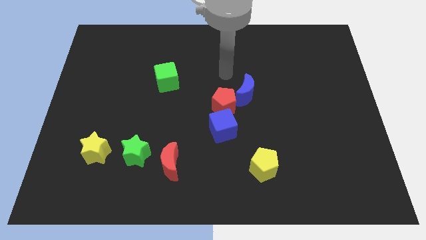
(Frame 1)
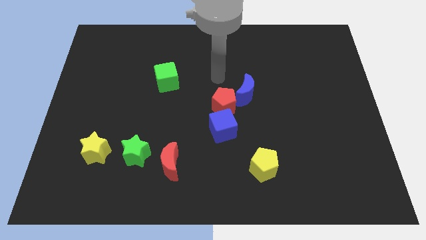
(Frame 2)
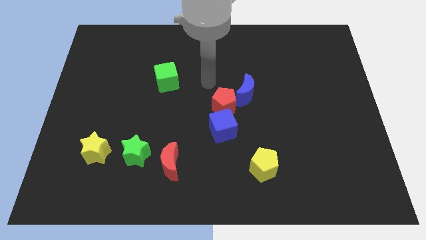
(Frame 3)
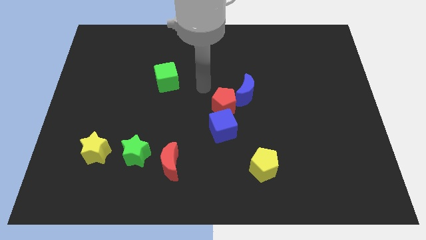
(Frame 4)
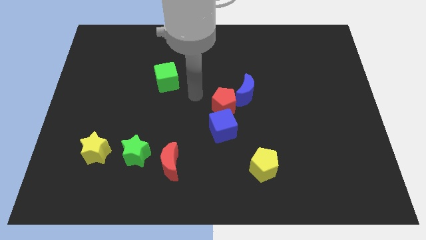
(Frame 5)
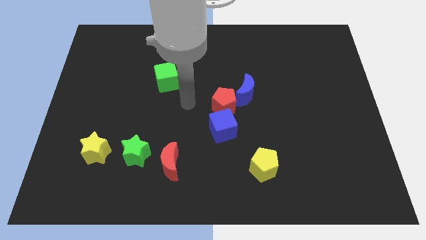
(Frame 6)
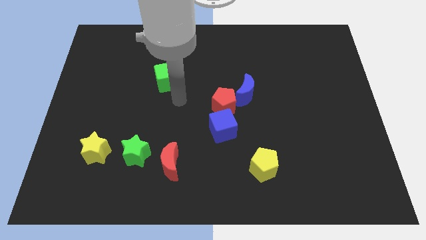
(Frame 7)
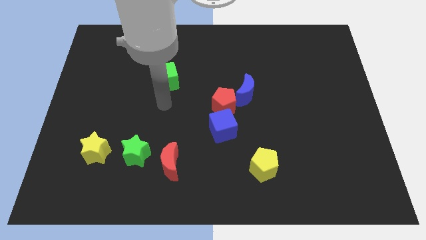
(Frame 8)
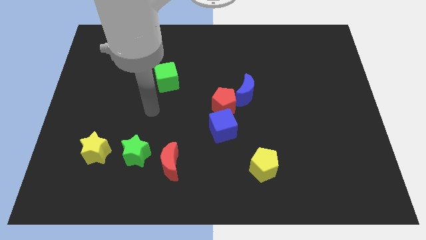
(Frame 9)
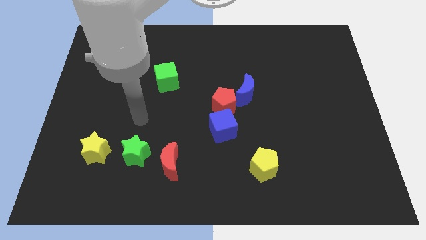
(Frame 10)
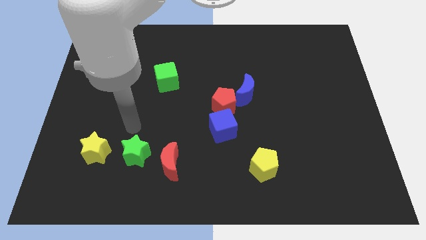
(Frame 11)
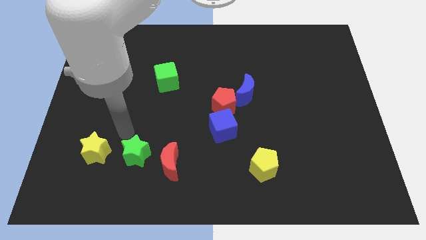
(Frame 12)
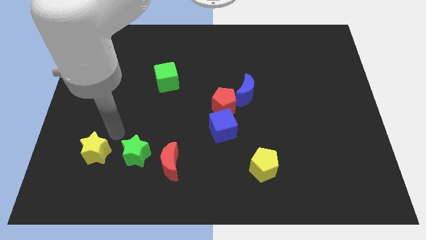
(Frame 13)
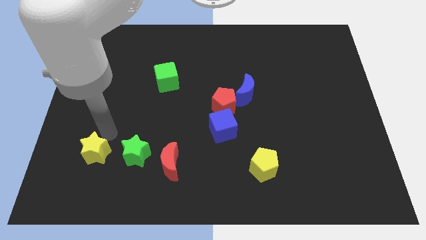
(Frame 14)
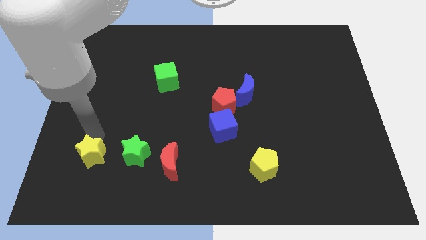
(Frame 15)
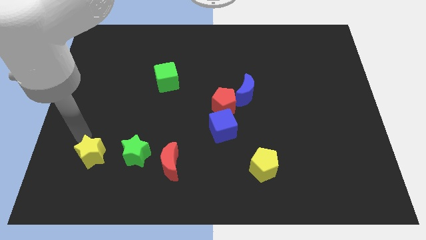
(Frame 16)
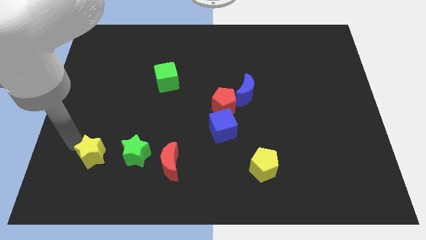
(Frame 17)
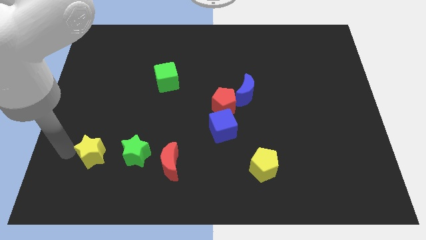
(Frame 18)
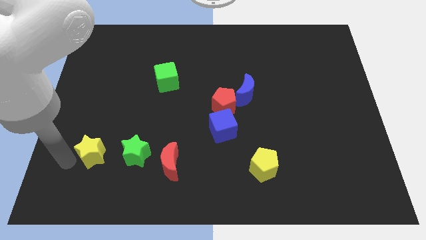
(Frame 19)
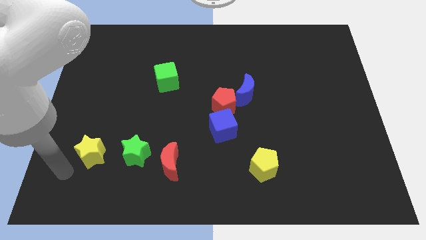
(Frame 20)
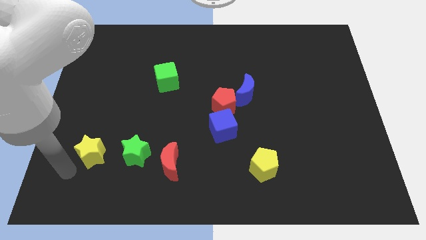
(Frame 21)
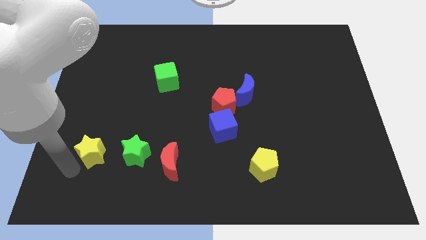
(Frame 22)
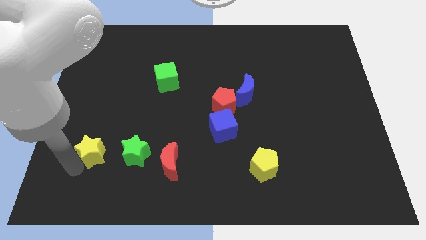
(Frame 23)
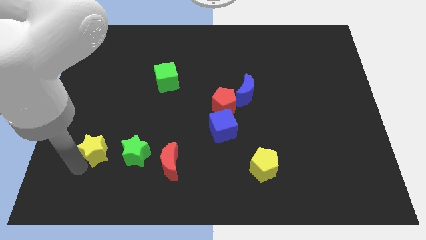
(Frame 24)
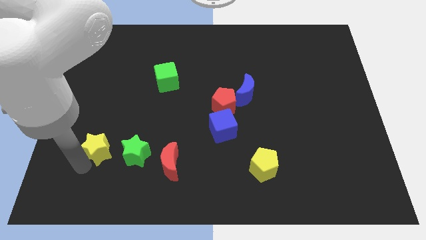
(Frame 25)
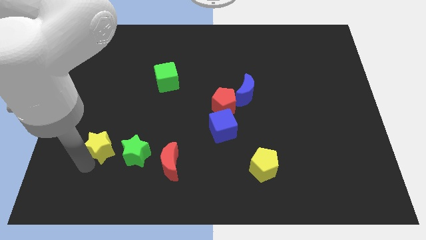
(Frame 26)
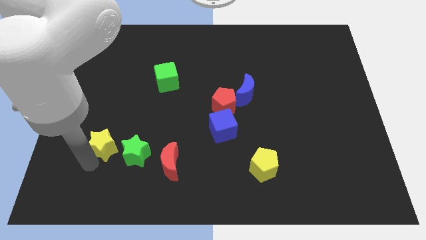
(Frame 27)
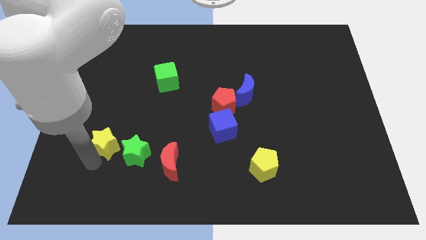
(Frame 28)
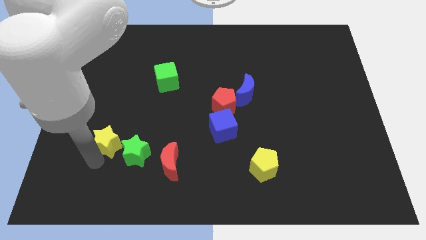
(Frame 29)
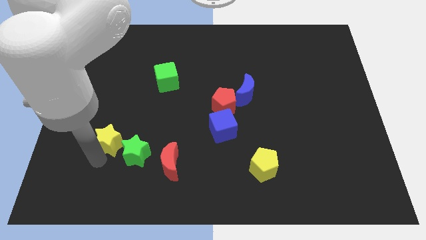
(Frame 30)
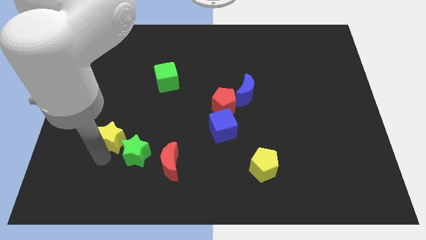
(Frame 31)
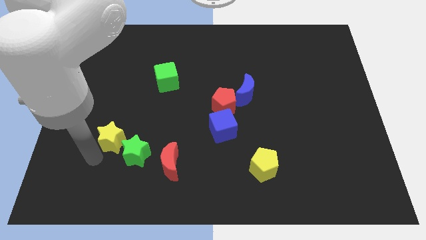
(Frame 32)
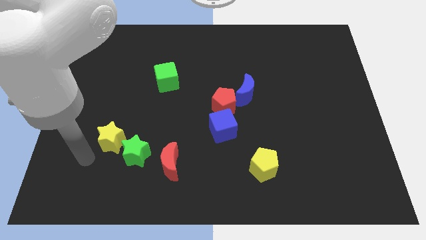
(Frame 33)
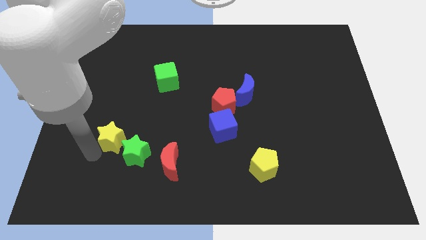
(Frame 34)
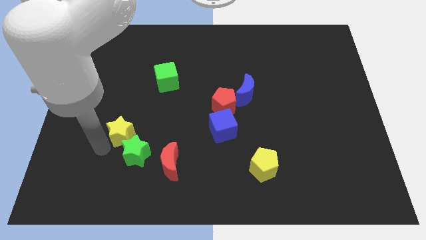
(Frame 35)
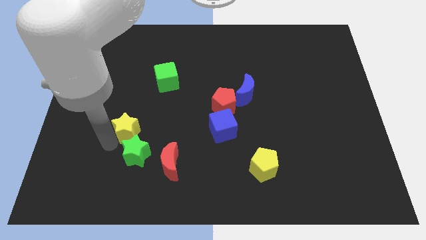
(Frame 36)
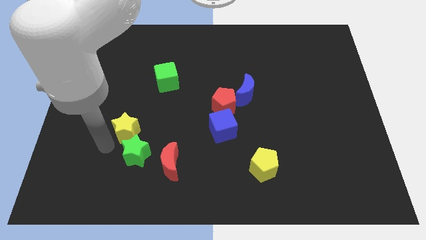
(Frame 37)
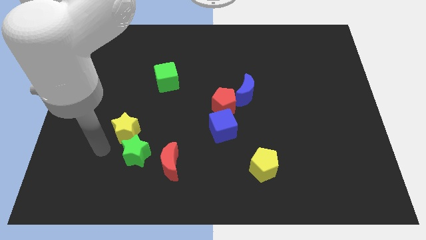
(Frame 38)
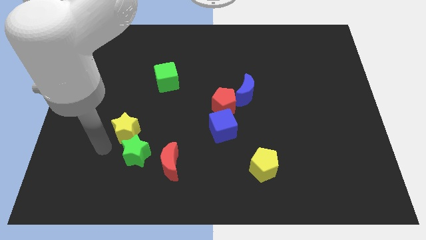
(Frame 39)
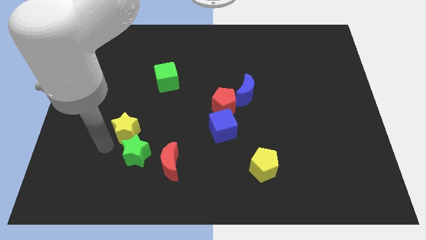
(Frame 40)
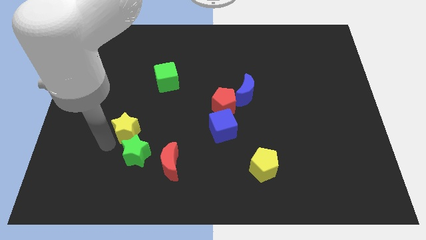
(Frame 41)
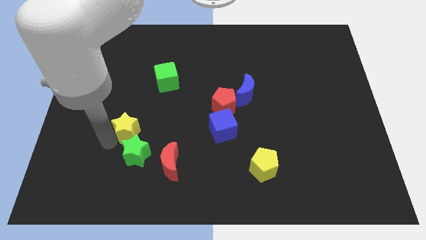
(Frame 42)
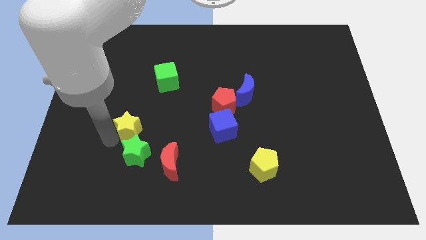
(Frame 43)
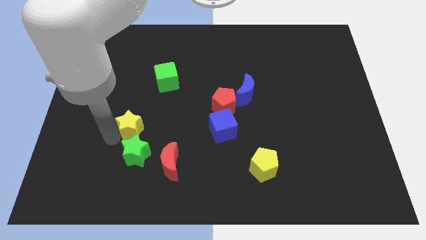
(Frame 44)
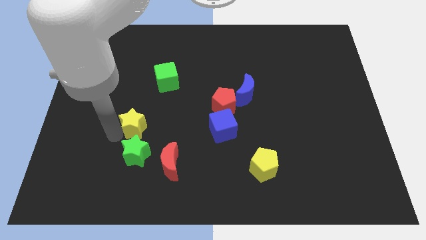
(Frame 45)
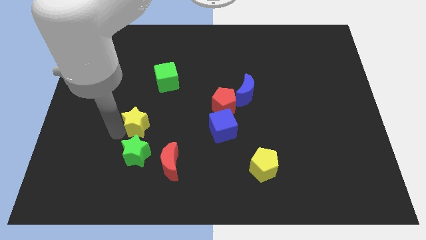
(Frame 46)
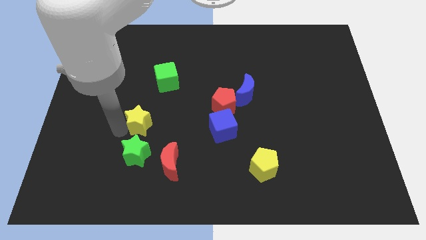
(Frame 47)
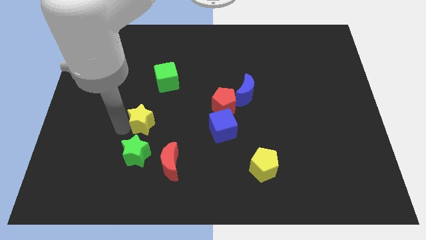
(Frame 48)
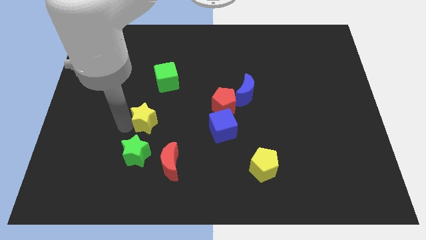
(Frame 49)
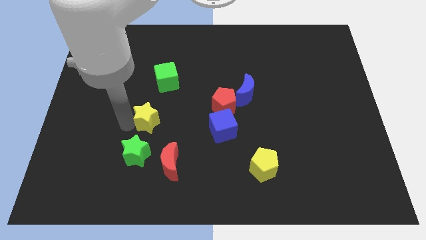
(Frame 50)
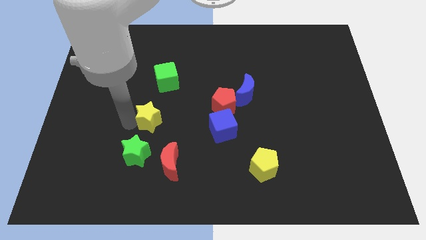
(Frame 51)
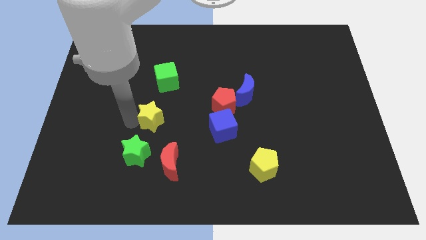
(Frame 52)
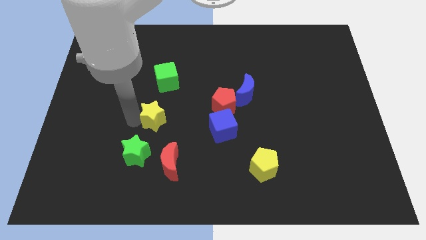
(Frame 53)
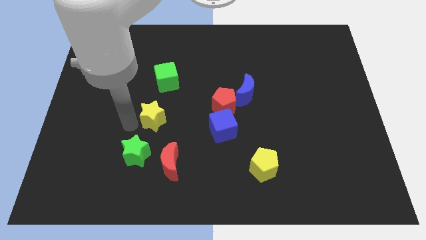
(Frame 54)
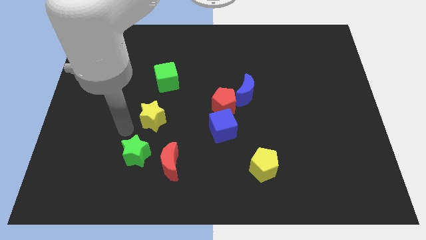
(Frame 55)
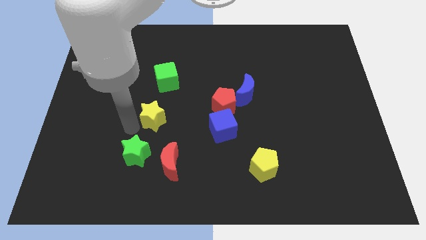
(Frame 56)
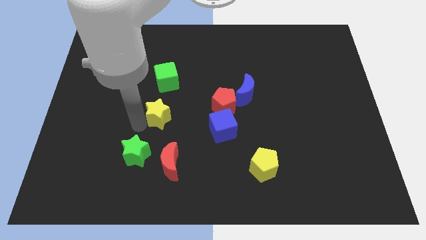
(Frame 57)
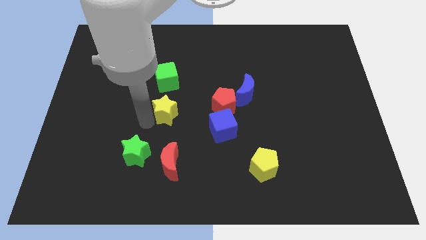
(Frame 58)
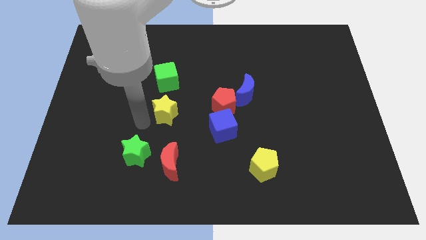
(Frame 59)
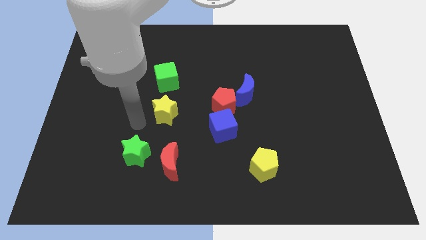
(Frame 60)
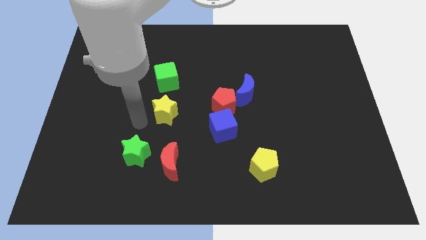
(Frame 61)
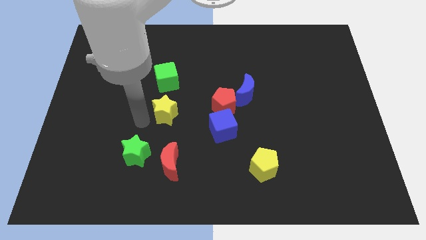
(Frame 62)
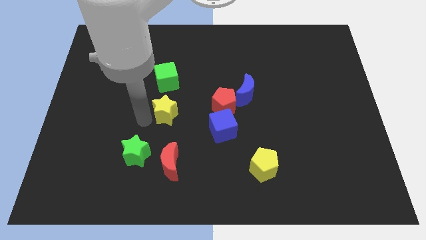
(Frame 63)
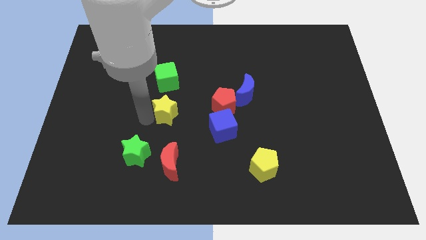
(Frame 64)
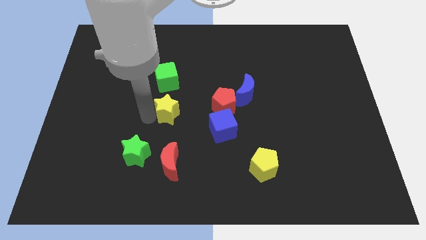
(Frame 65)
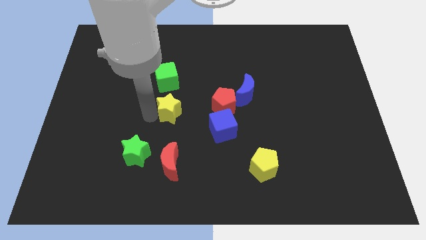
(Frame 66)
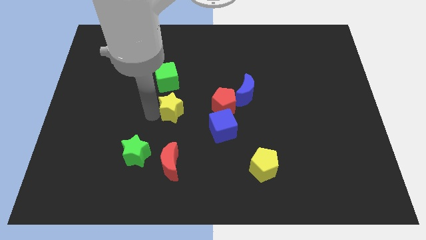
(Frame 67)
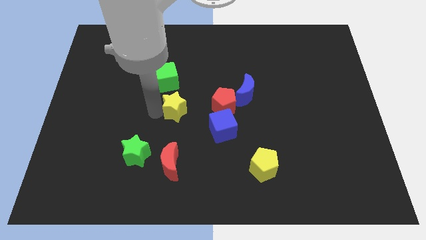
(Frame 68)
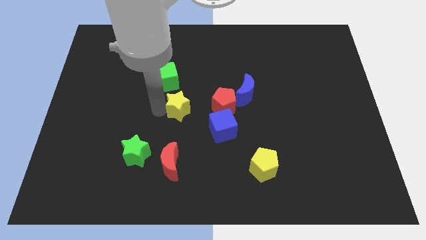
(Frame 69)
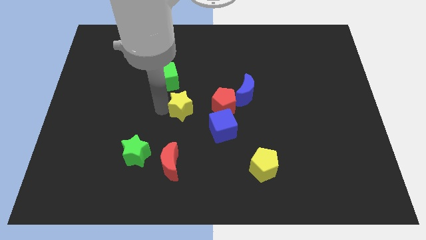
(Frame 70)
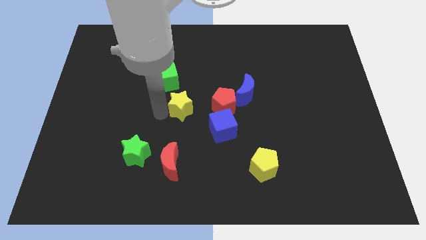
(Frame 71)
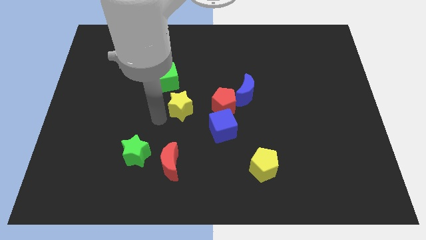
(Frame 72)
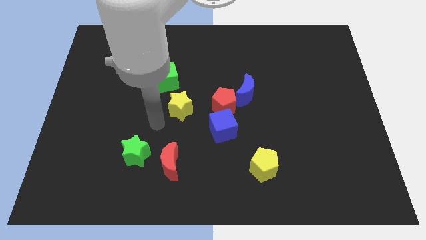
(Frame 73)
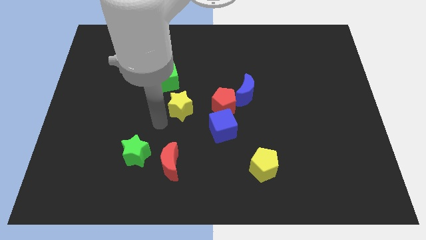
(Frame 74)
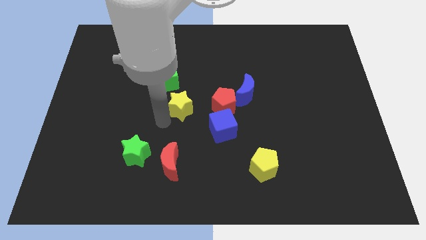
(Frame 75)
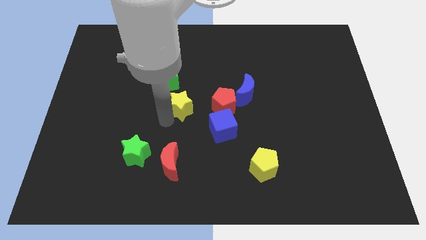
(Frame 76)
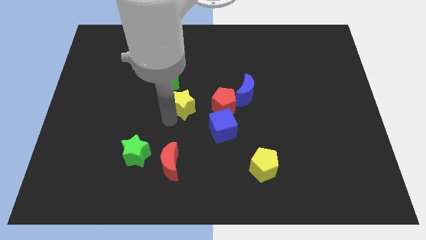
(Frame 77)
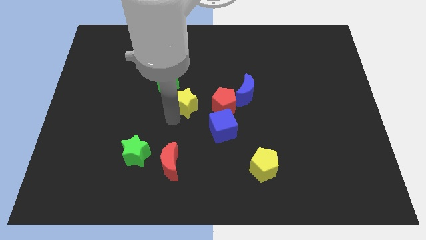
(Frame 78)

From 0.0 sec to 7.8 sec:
put the yellow star just left of the blue moon
